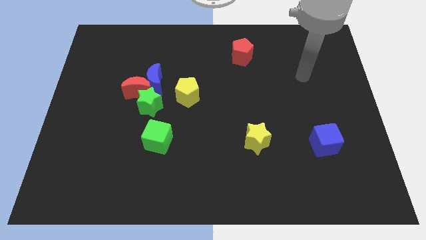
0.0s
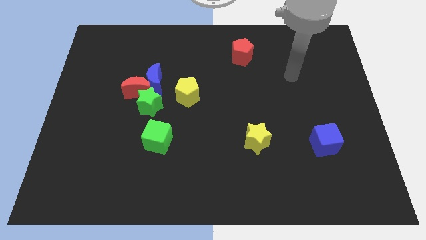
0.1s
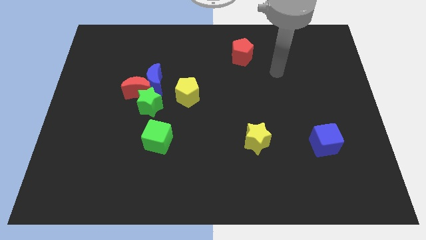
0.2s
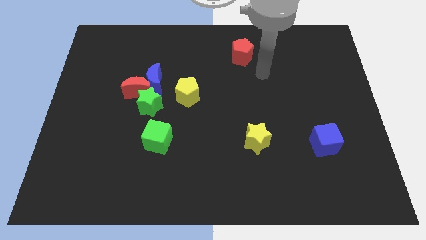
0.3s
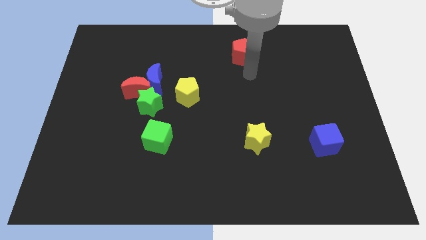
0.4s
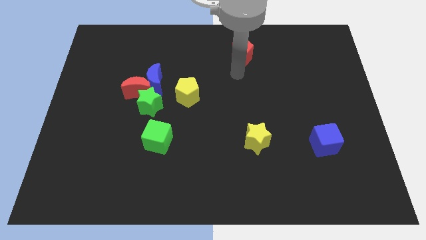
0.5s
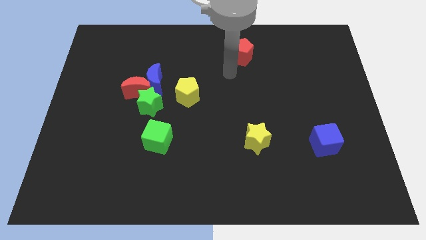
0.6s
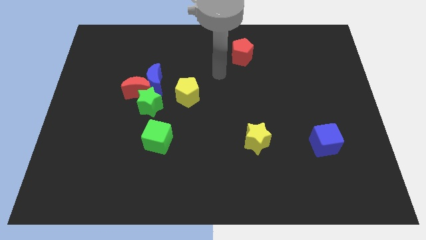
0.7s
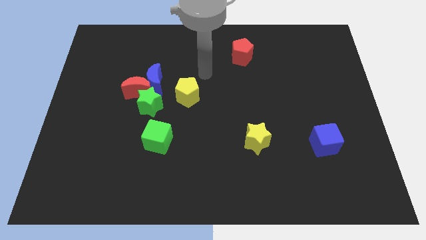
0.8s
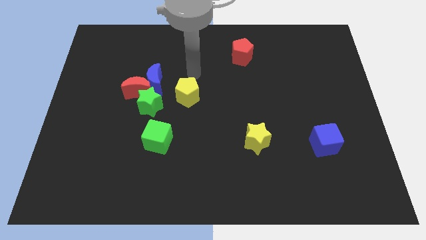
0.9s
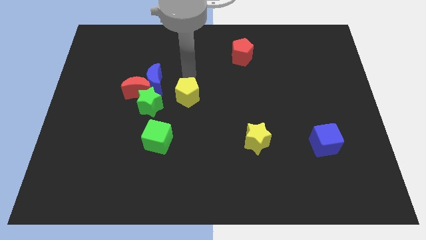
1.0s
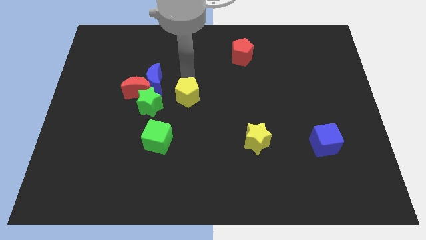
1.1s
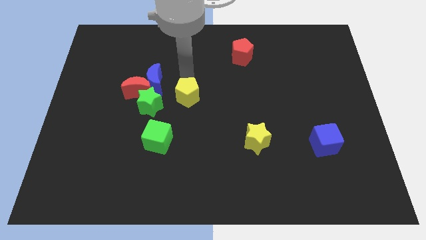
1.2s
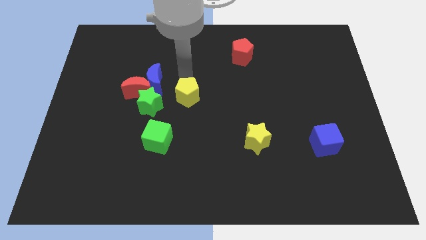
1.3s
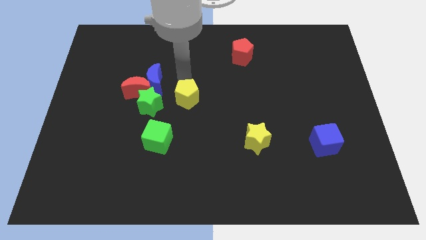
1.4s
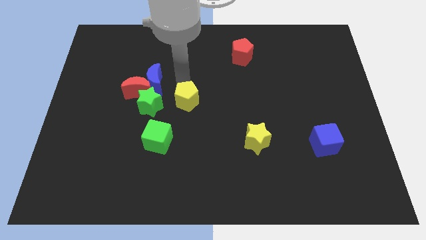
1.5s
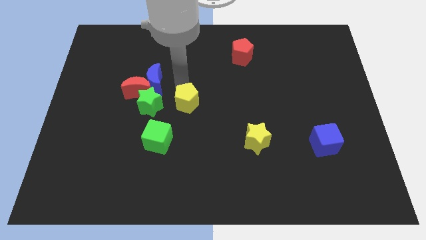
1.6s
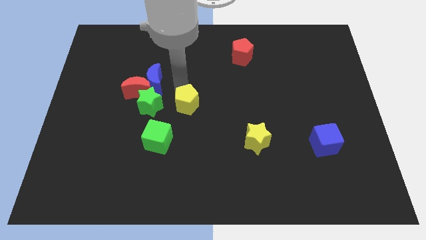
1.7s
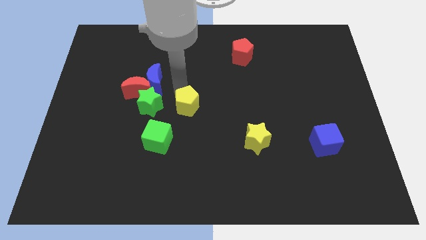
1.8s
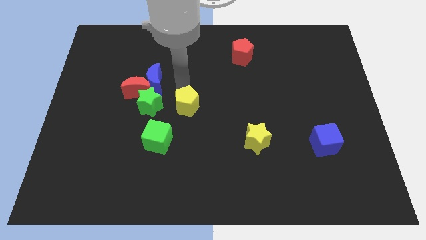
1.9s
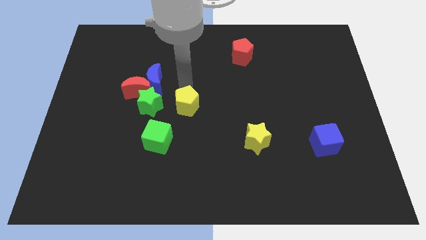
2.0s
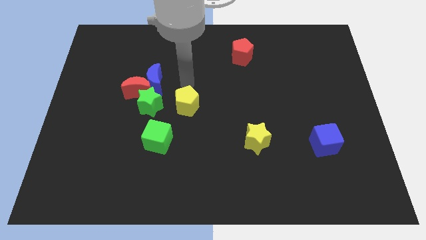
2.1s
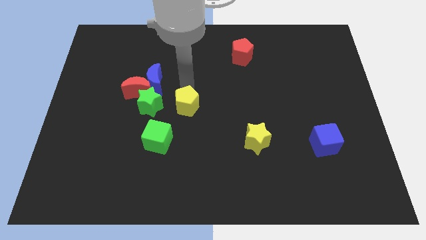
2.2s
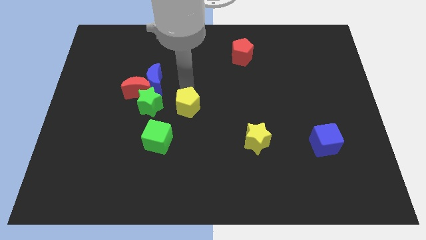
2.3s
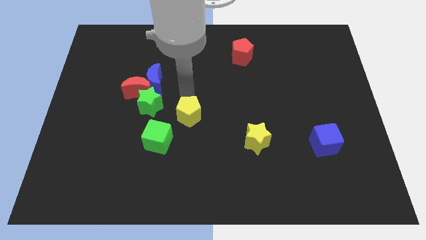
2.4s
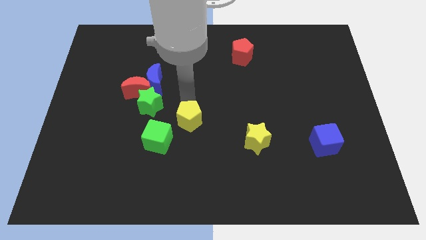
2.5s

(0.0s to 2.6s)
move the yellow pentagon somewhat downwards

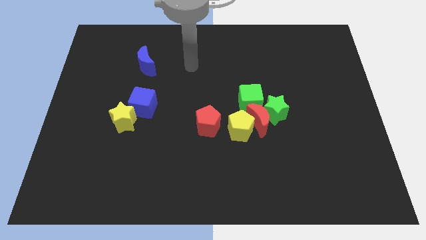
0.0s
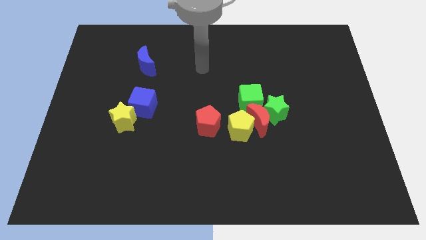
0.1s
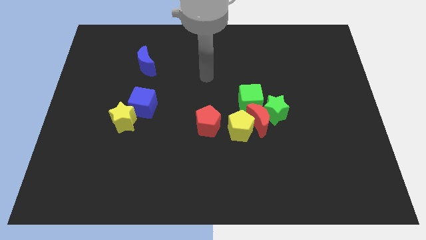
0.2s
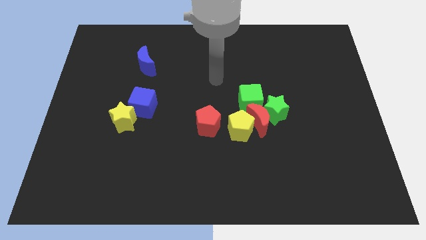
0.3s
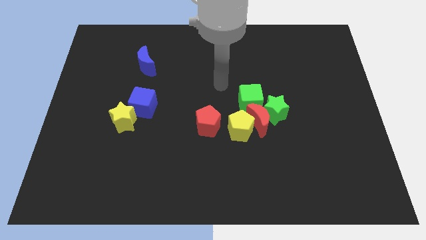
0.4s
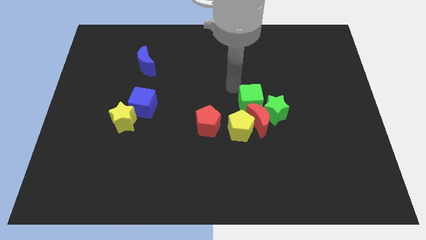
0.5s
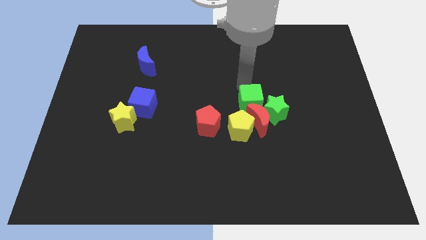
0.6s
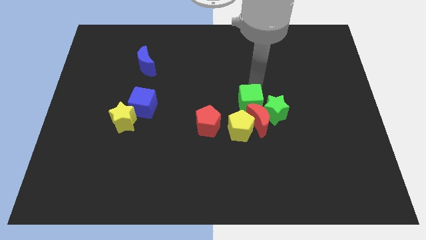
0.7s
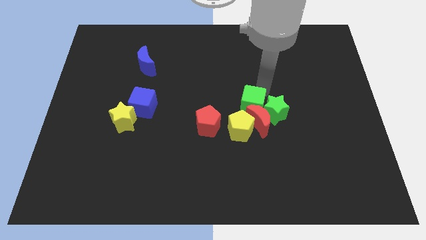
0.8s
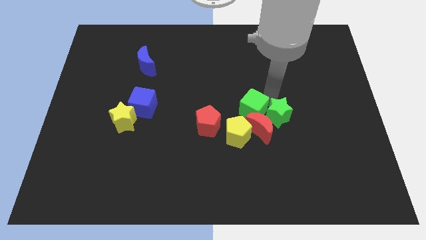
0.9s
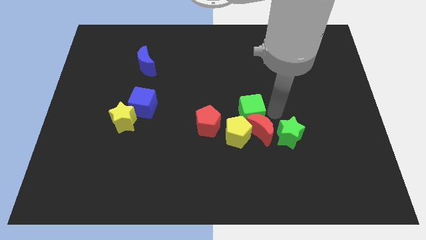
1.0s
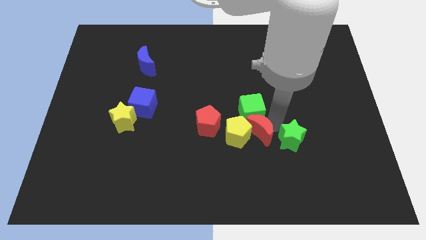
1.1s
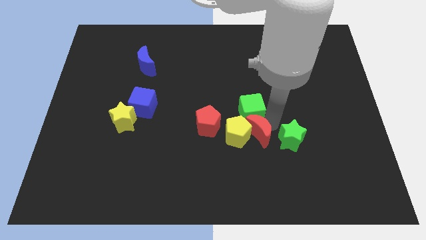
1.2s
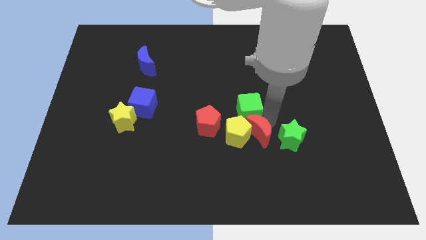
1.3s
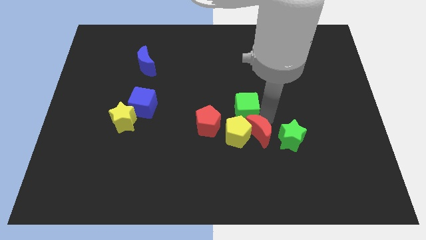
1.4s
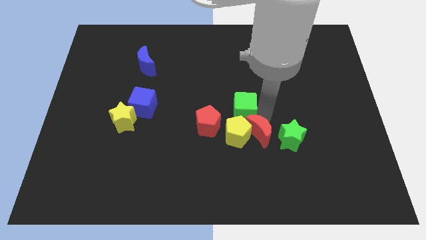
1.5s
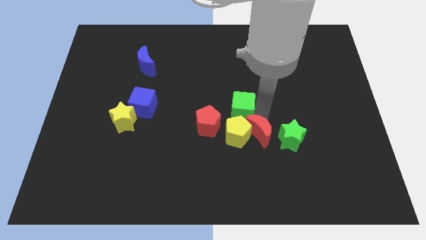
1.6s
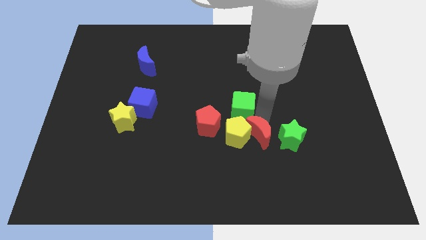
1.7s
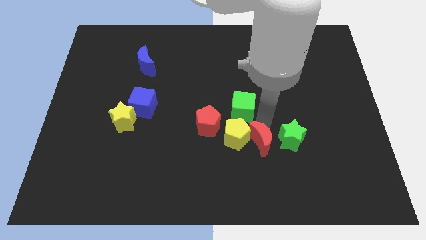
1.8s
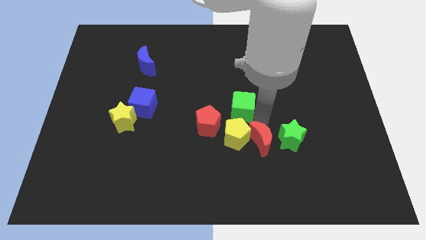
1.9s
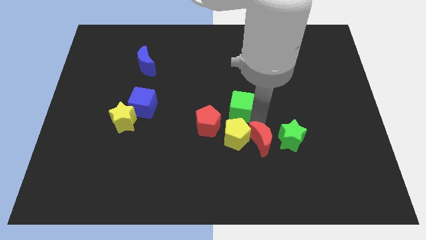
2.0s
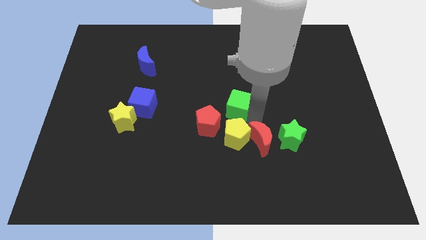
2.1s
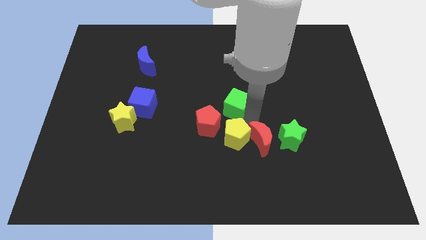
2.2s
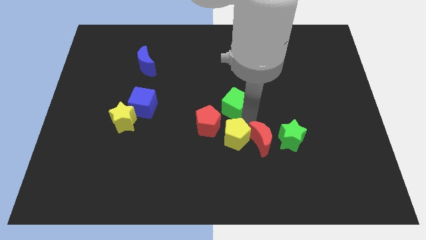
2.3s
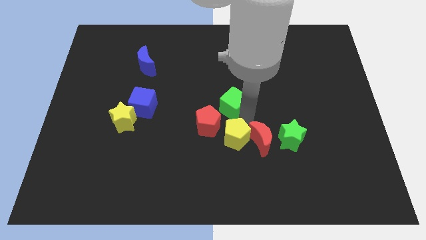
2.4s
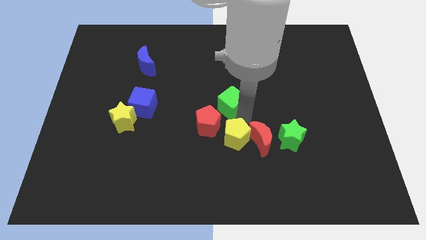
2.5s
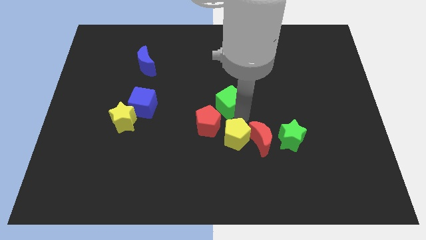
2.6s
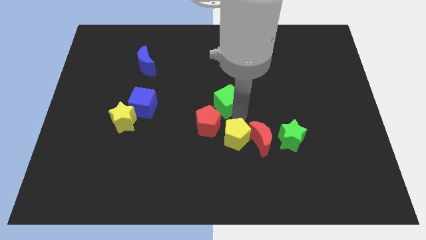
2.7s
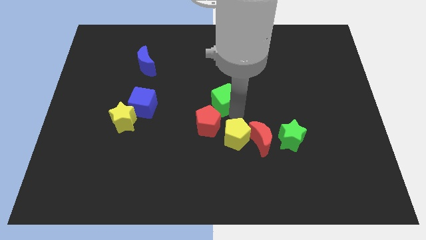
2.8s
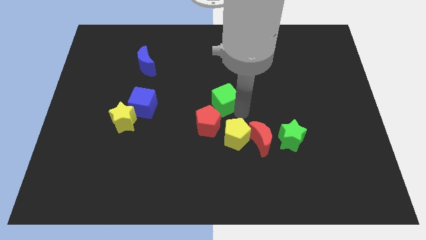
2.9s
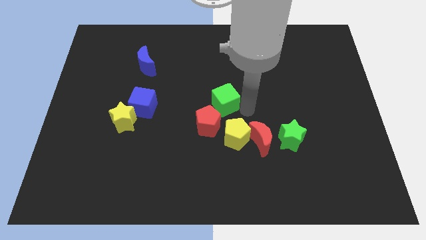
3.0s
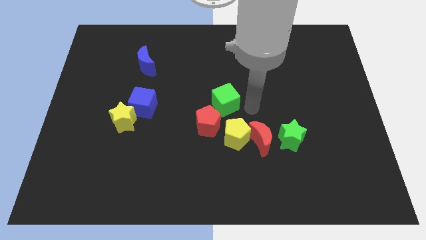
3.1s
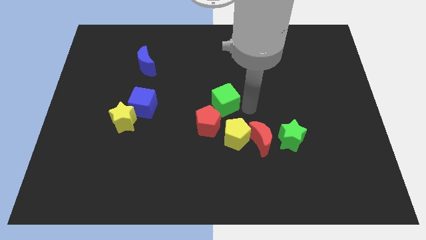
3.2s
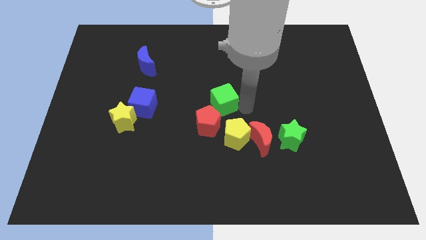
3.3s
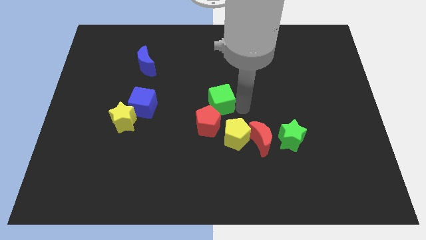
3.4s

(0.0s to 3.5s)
slightly push the green cube to the left

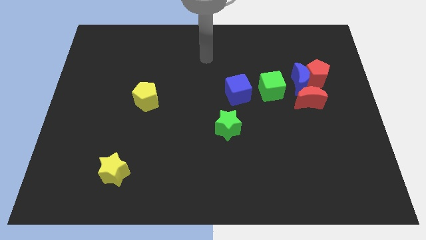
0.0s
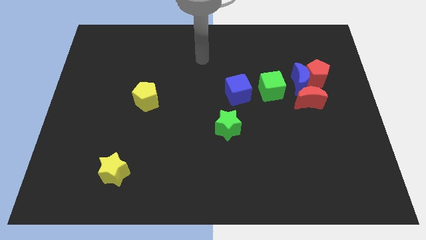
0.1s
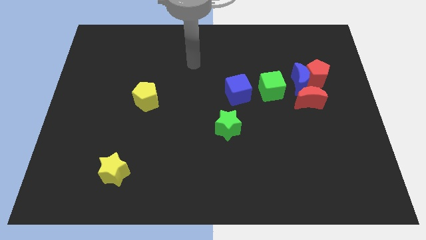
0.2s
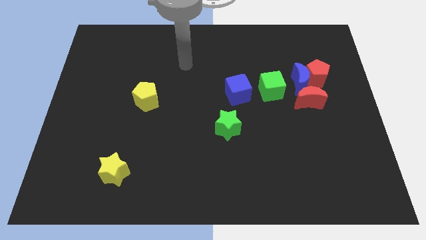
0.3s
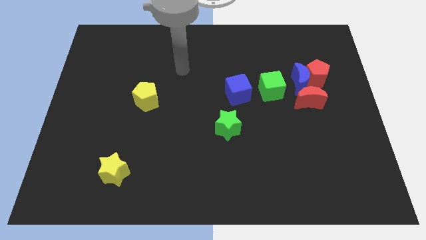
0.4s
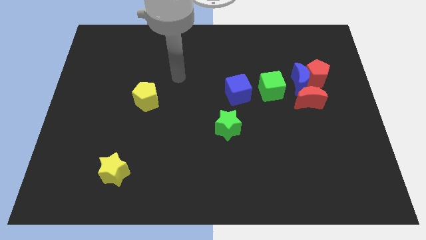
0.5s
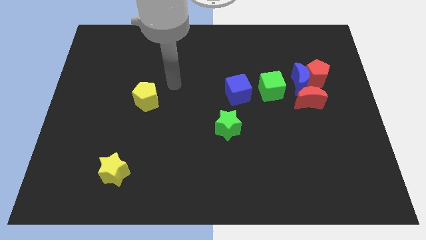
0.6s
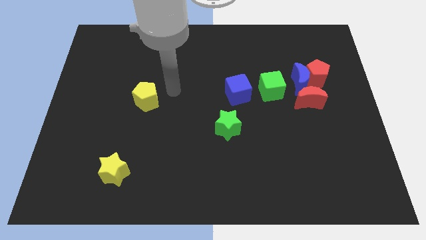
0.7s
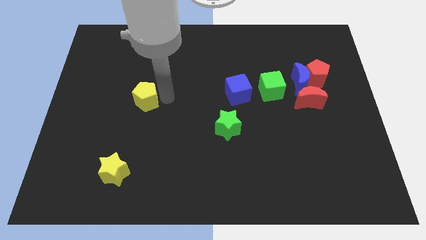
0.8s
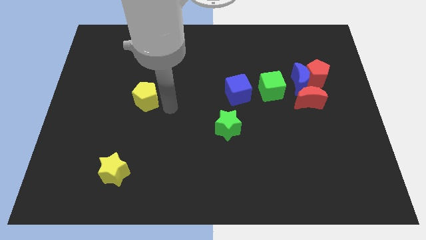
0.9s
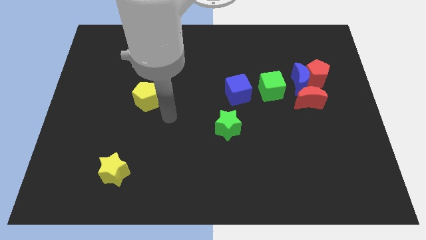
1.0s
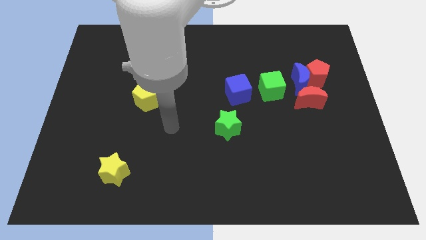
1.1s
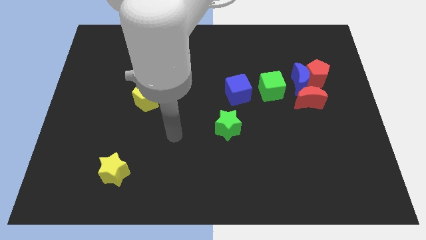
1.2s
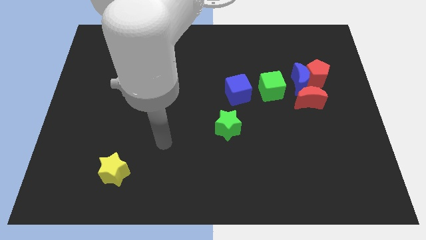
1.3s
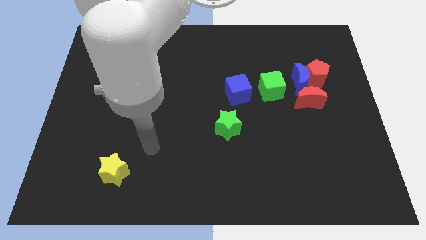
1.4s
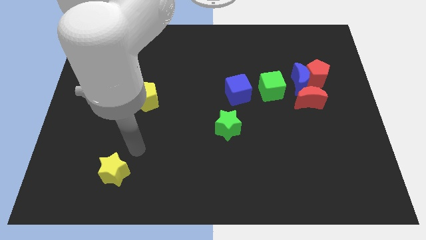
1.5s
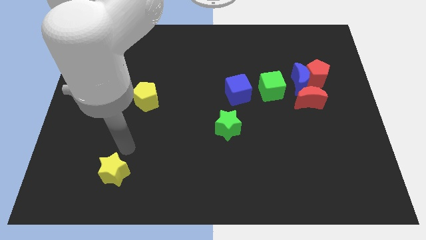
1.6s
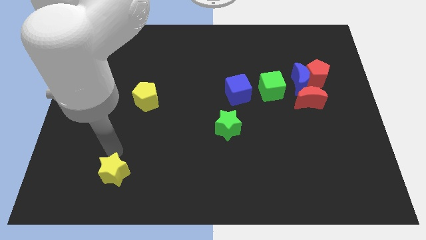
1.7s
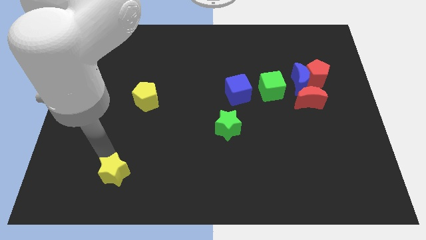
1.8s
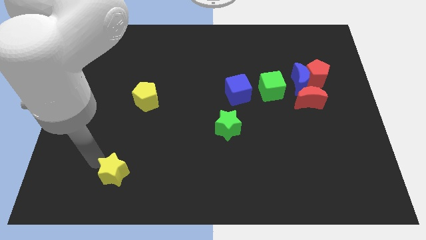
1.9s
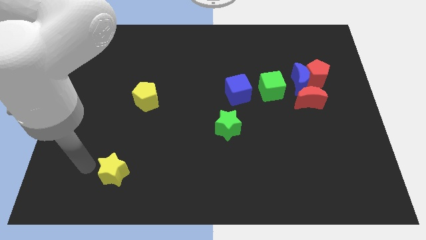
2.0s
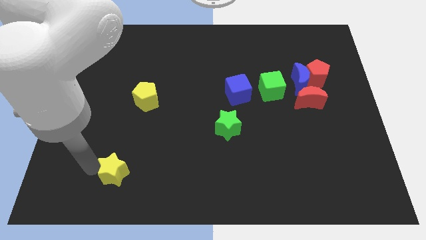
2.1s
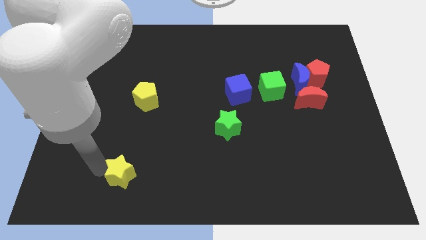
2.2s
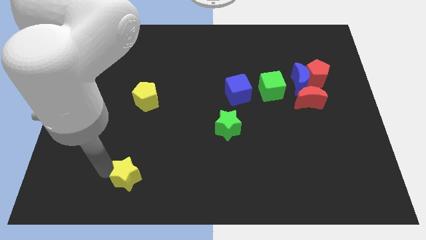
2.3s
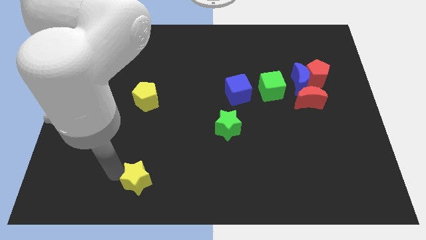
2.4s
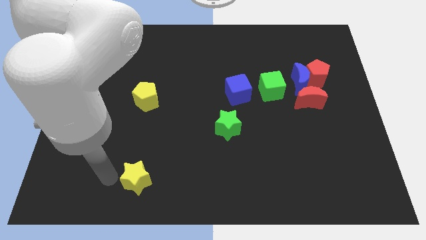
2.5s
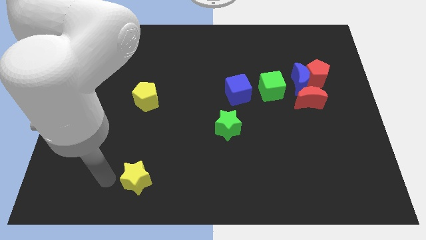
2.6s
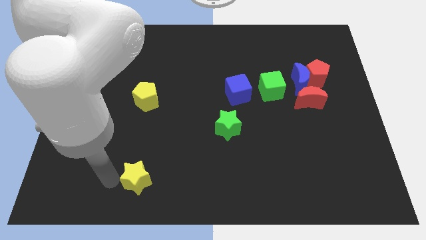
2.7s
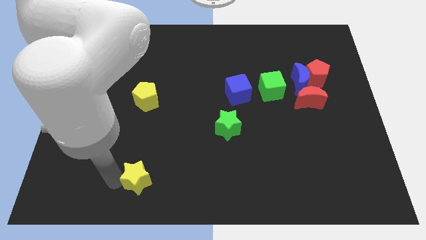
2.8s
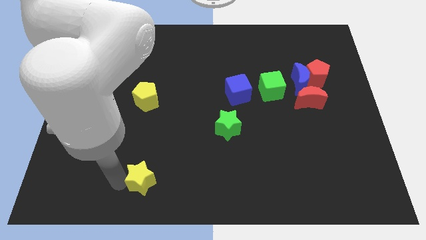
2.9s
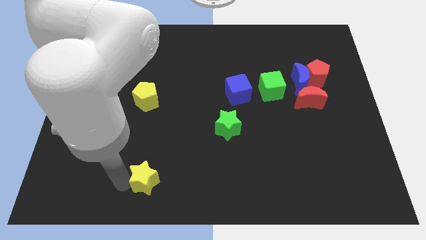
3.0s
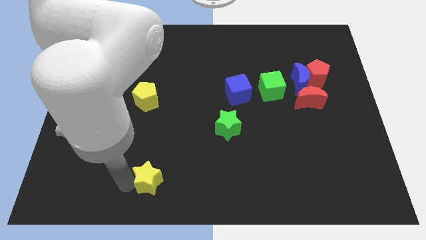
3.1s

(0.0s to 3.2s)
slightly slide the yellow star right
